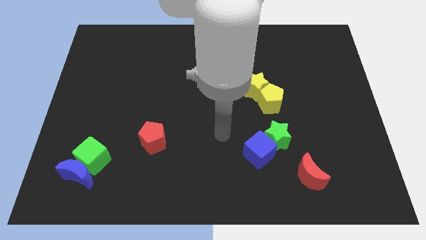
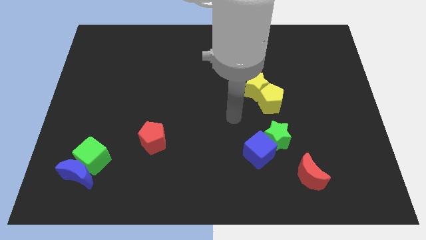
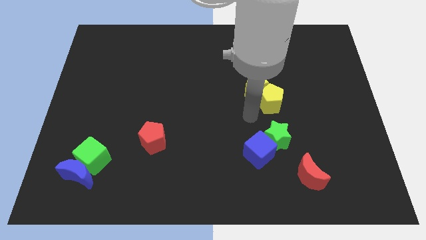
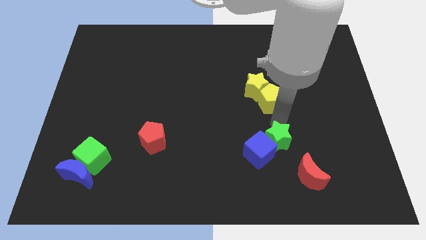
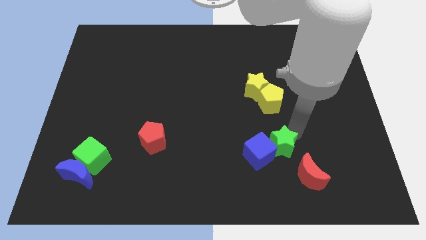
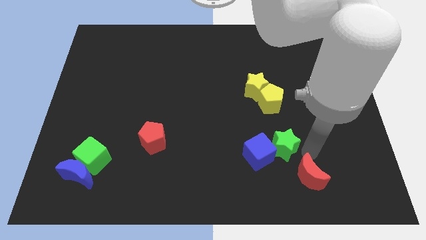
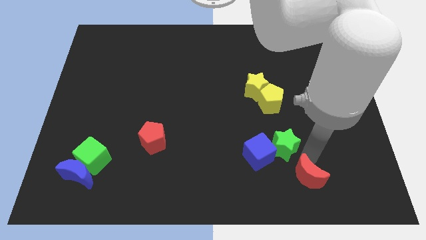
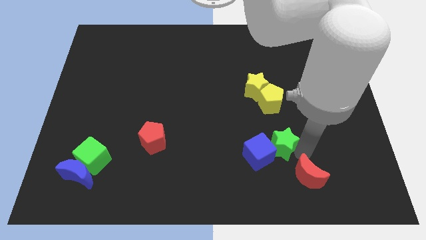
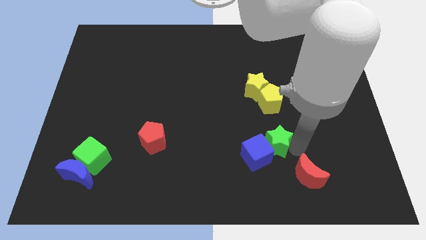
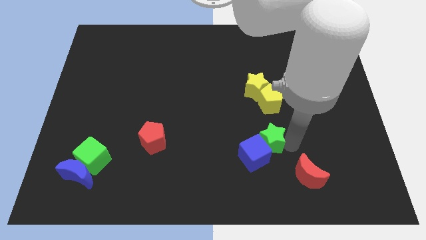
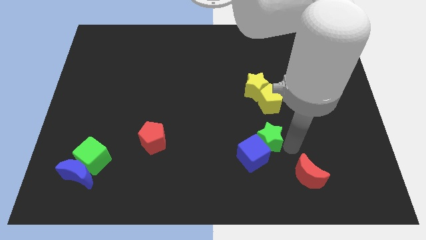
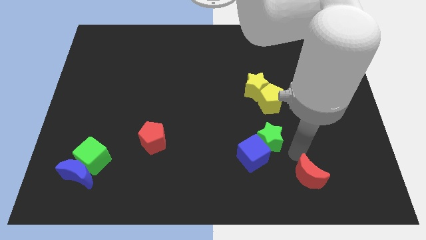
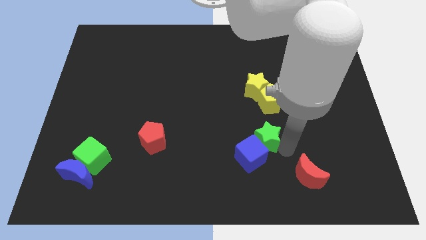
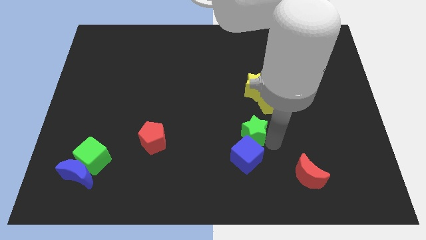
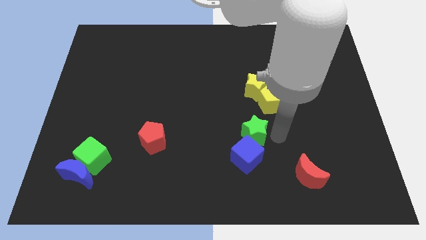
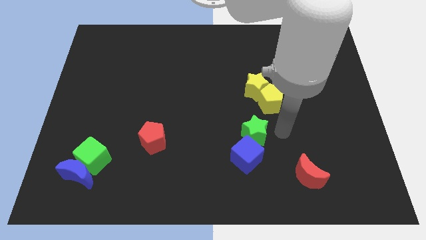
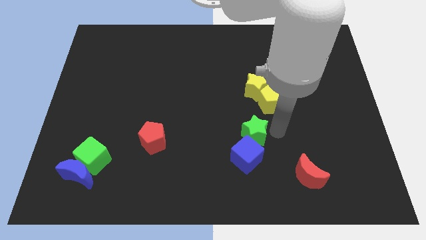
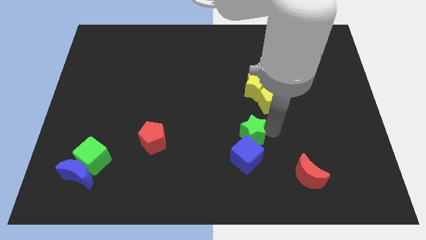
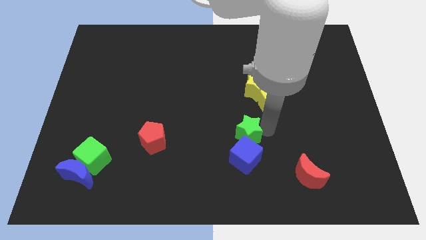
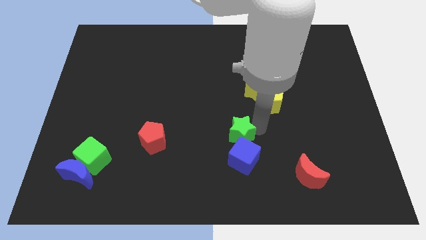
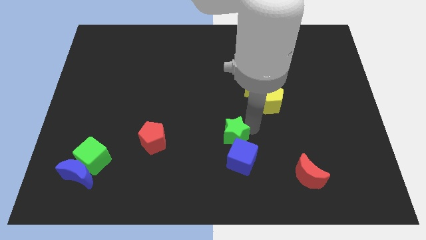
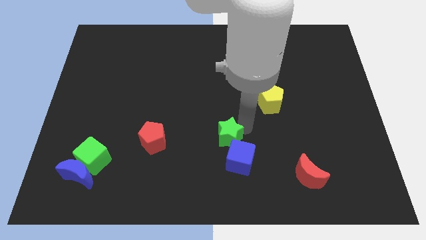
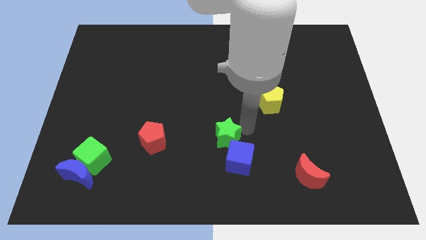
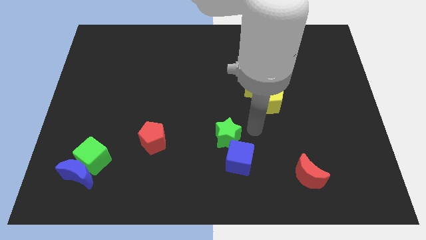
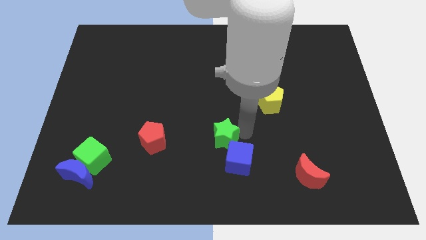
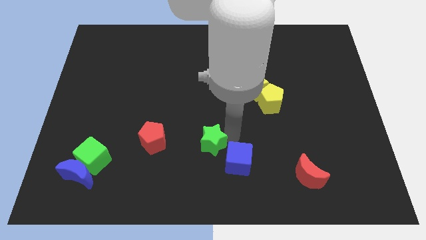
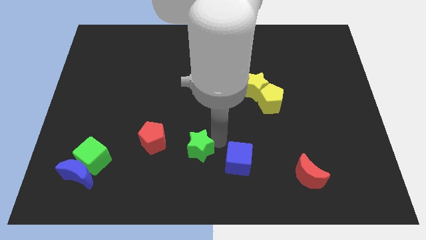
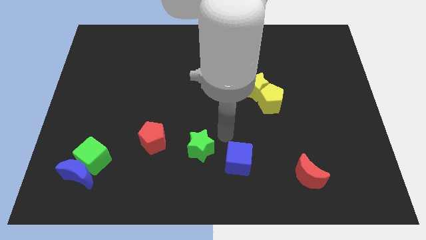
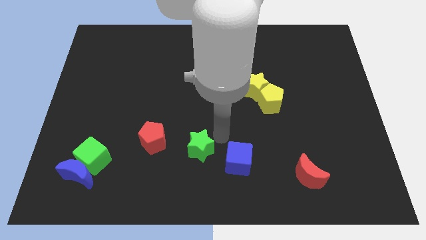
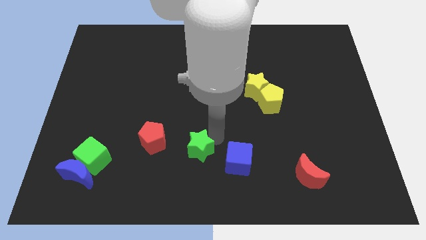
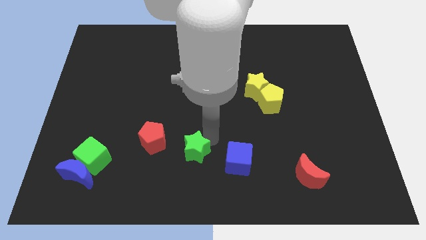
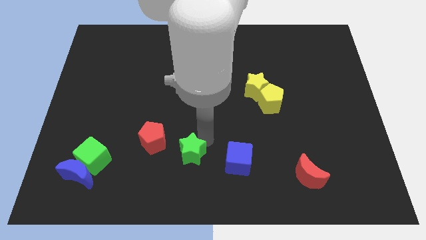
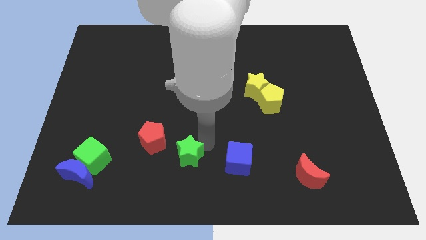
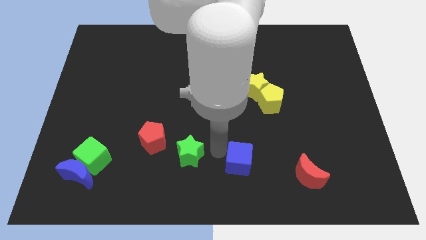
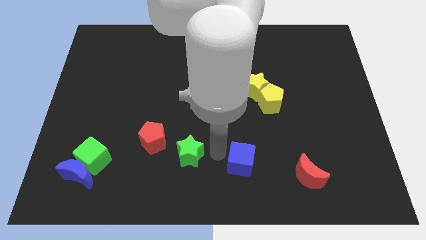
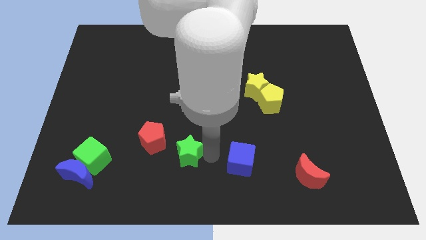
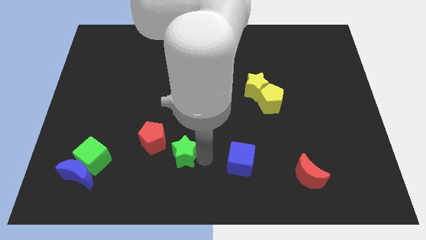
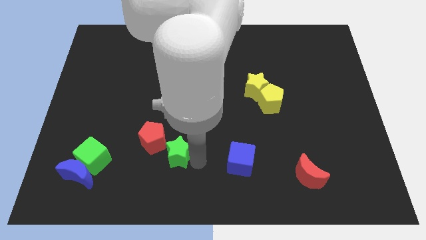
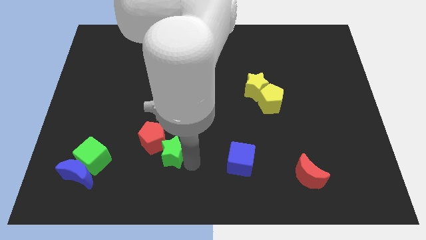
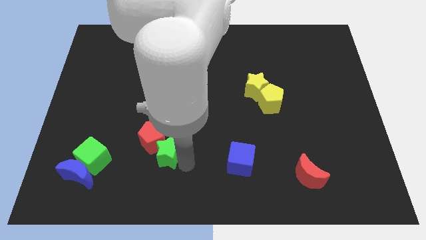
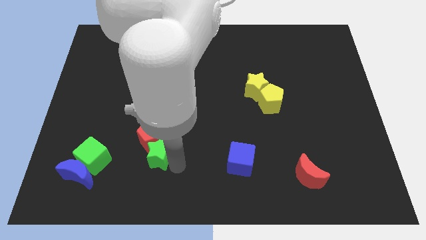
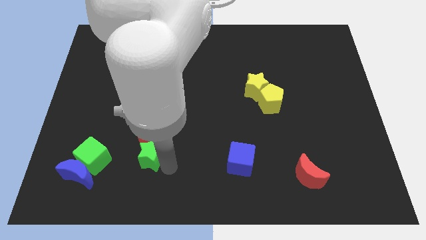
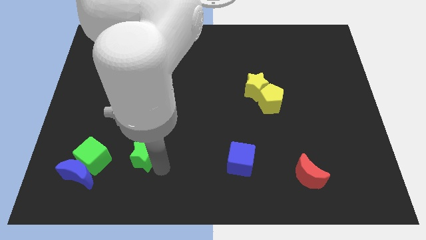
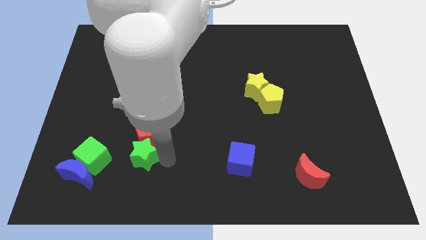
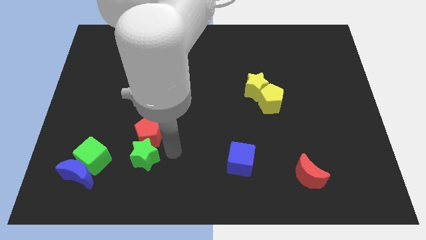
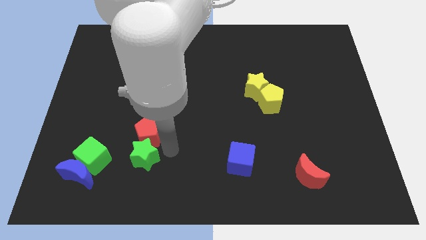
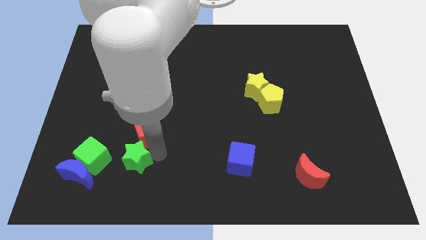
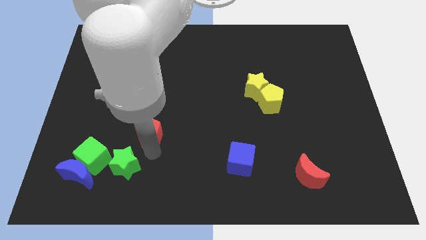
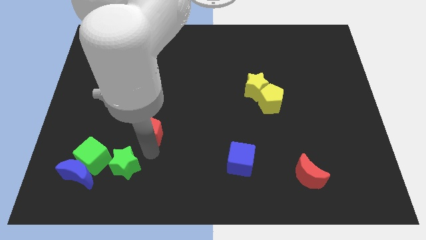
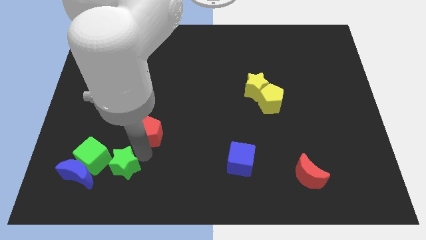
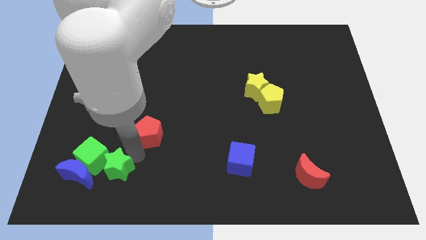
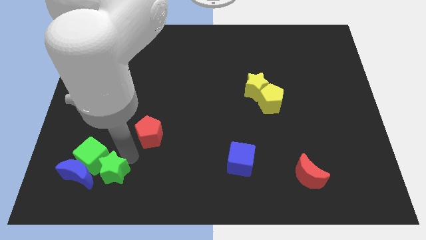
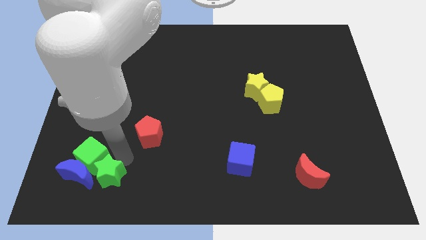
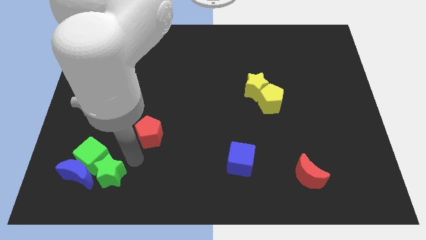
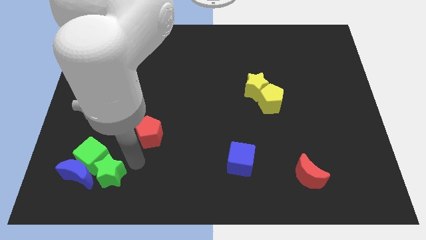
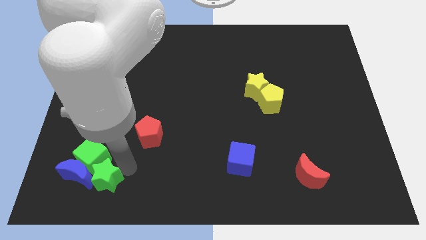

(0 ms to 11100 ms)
slide the green star close to the blue moon

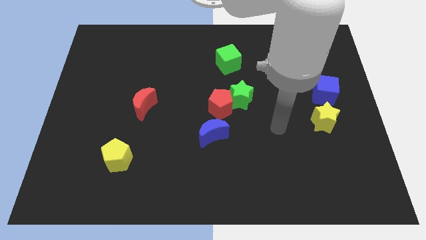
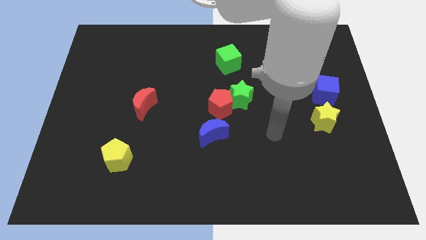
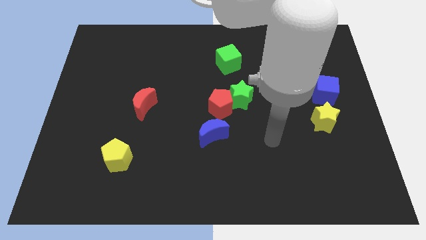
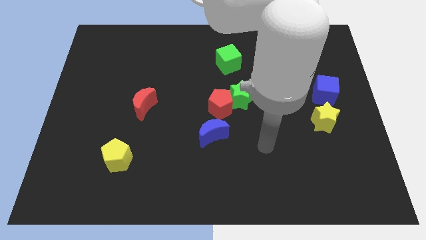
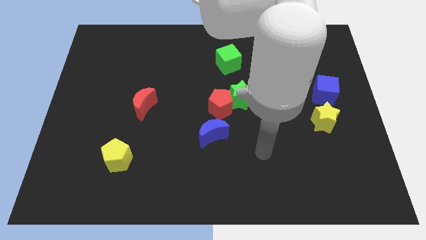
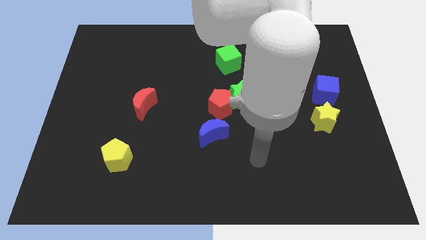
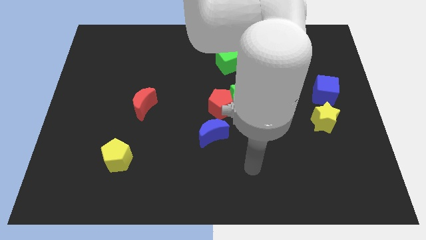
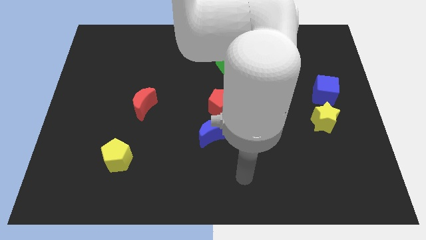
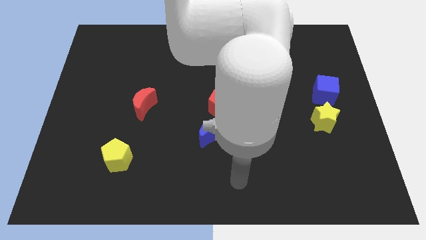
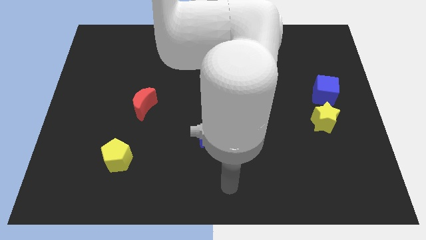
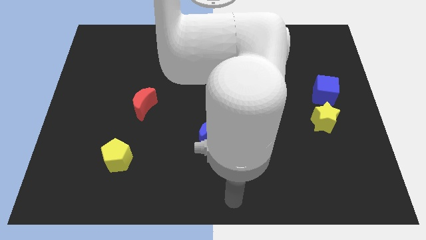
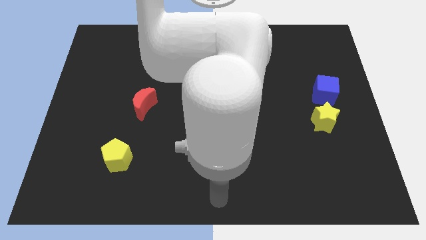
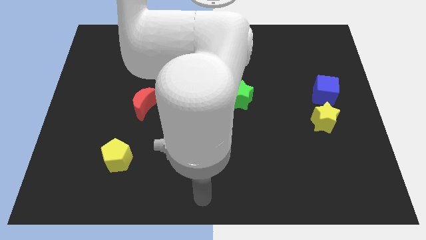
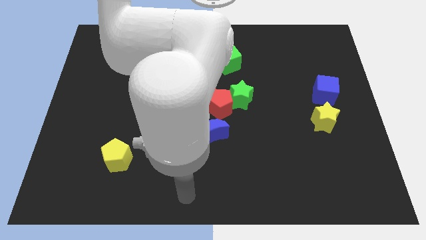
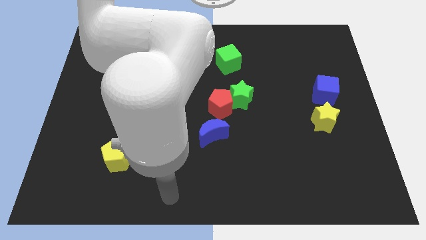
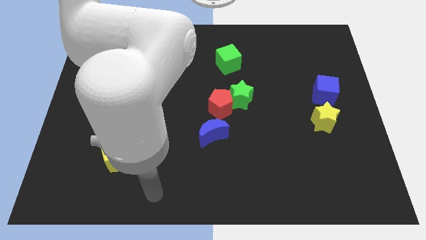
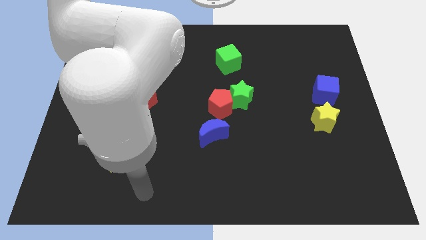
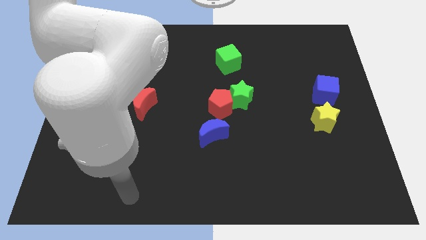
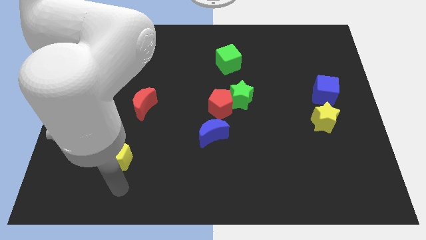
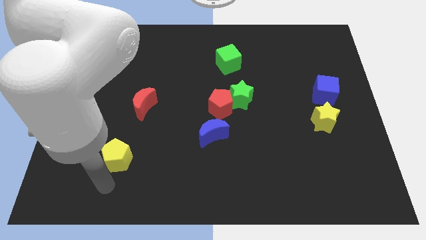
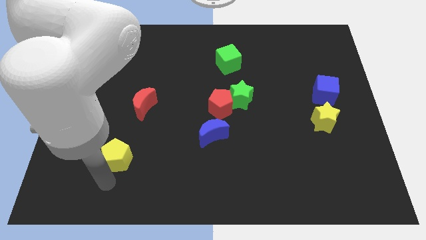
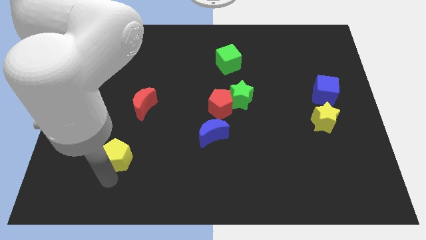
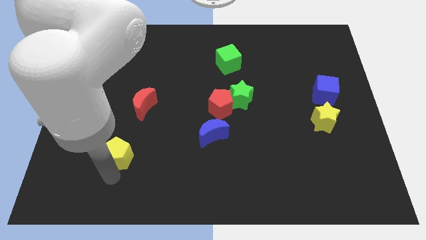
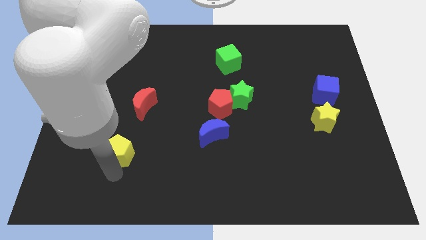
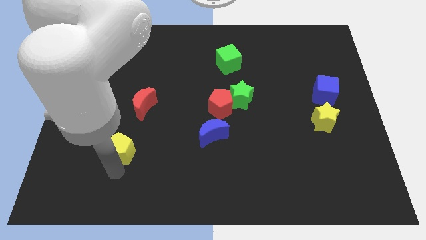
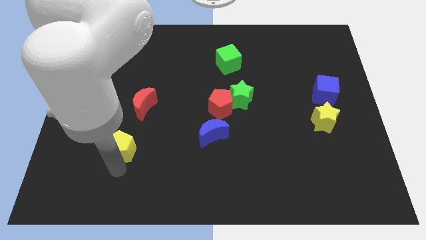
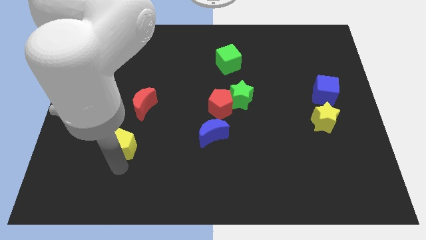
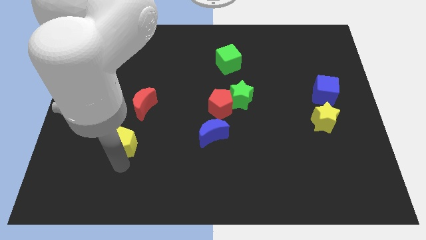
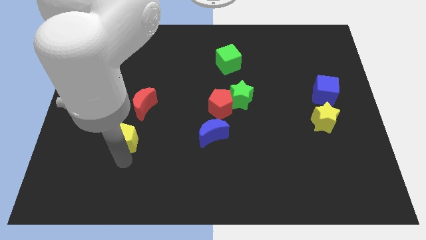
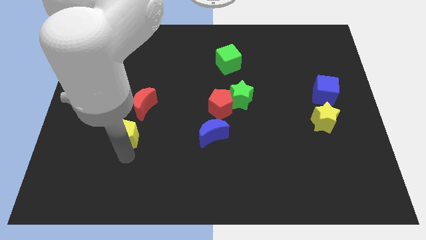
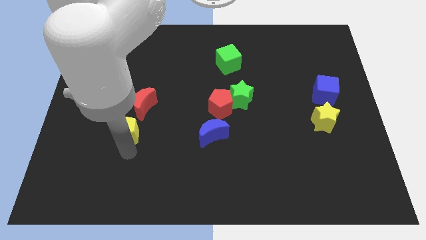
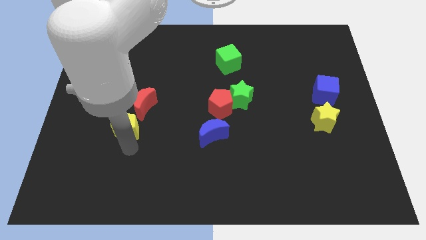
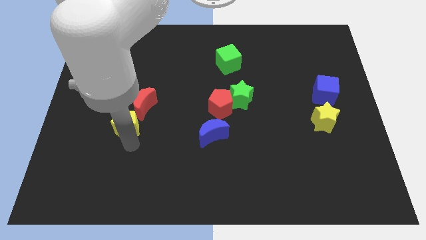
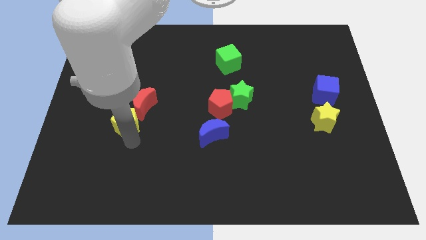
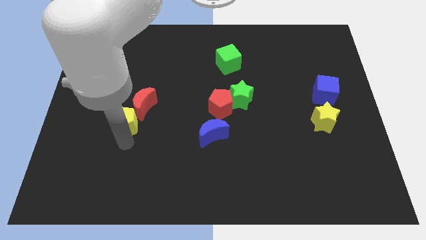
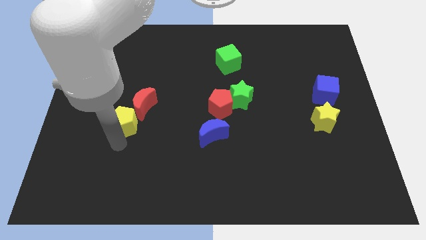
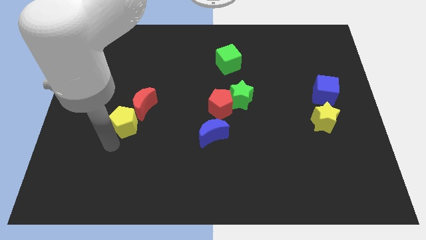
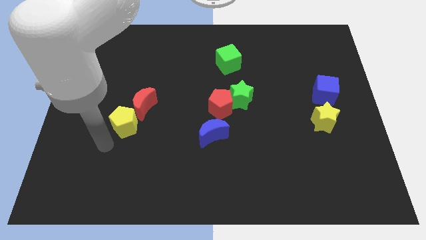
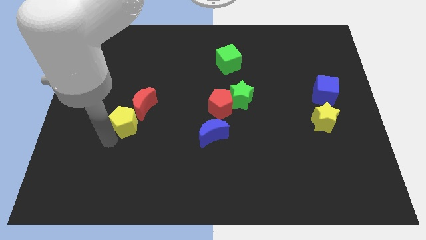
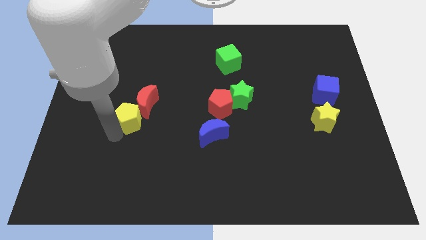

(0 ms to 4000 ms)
put the yellow pentagon towards the red moon
